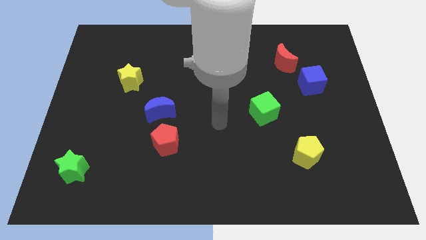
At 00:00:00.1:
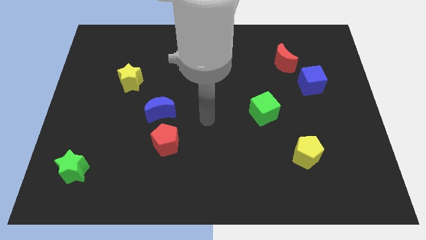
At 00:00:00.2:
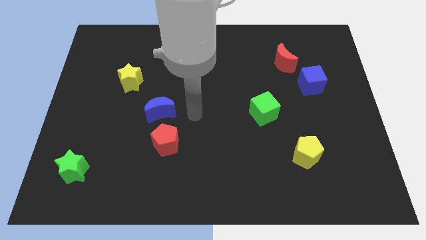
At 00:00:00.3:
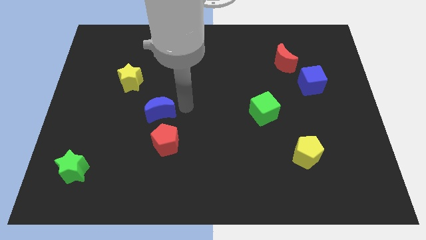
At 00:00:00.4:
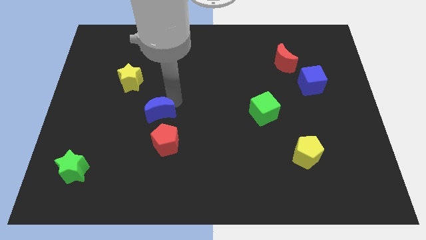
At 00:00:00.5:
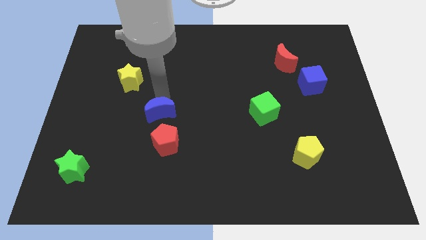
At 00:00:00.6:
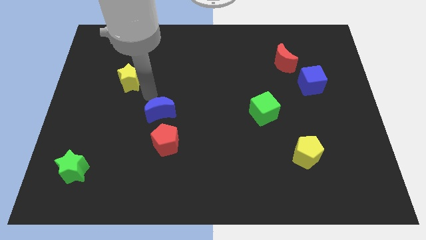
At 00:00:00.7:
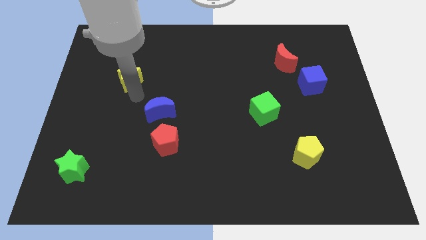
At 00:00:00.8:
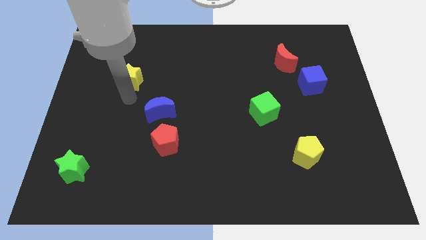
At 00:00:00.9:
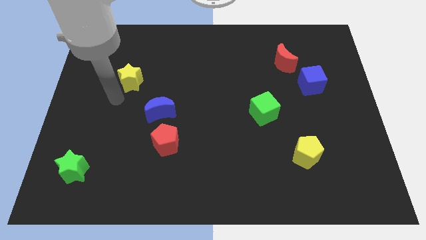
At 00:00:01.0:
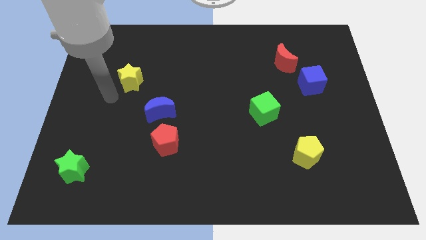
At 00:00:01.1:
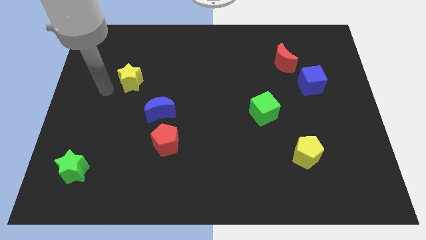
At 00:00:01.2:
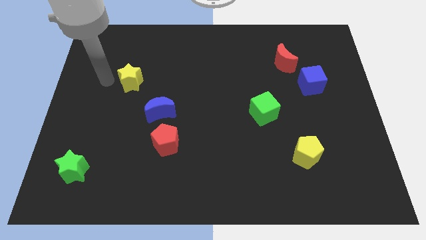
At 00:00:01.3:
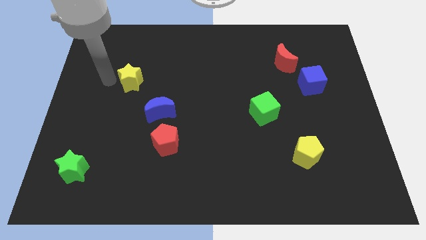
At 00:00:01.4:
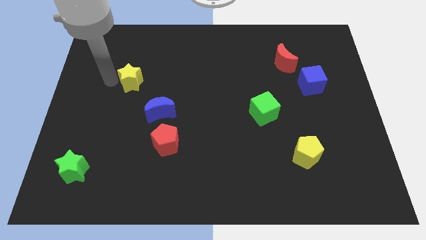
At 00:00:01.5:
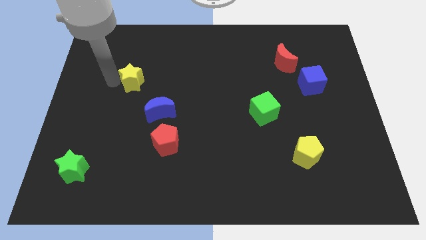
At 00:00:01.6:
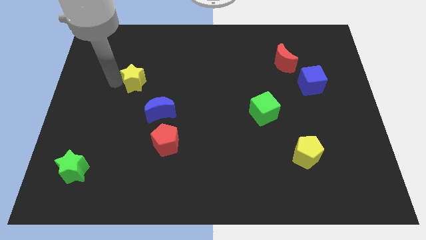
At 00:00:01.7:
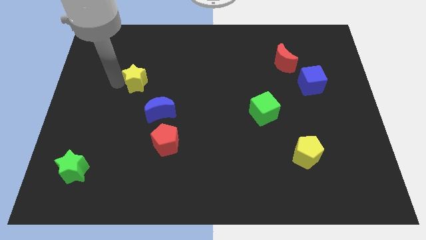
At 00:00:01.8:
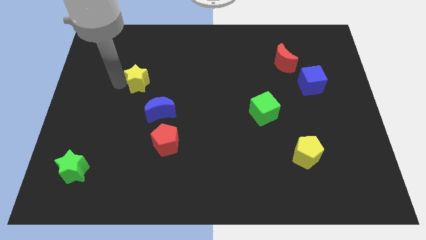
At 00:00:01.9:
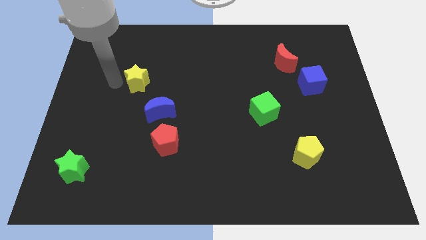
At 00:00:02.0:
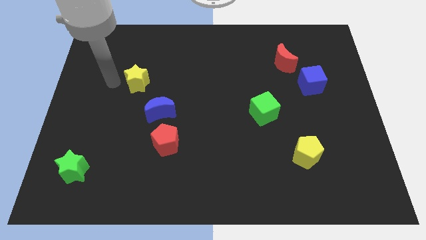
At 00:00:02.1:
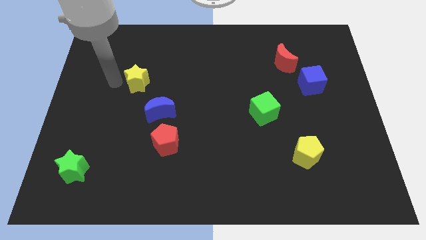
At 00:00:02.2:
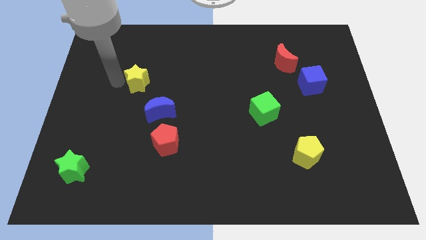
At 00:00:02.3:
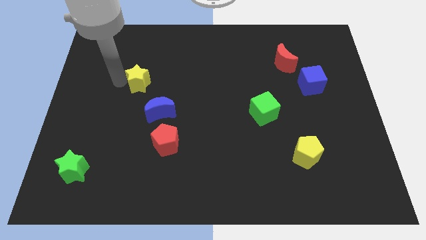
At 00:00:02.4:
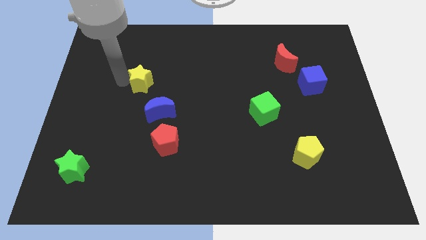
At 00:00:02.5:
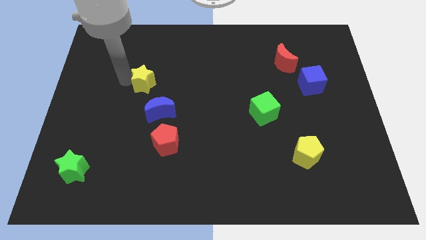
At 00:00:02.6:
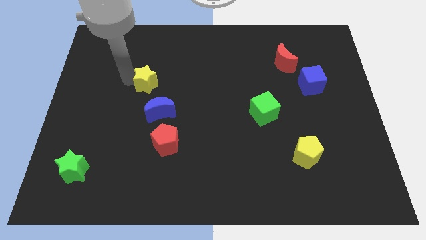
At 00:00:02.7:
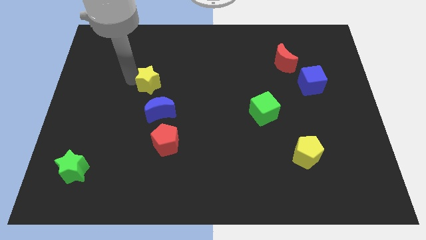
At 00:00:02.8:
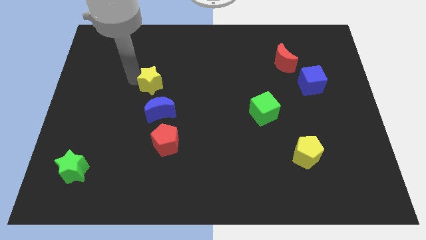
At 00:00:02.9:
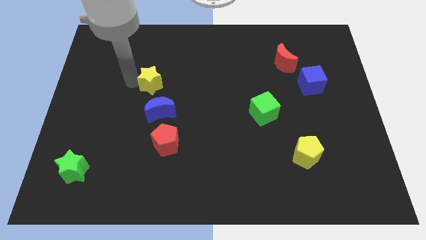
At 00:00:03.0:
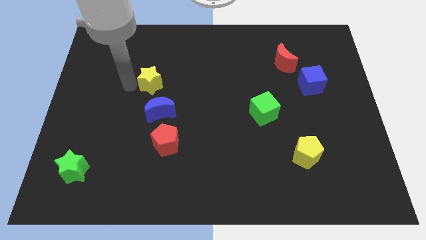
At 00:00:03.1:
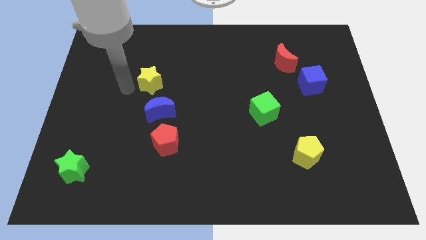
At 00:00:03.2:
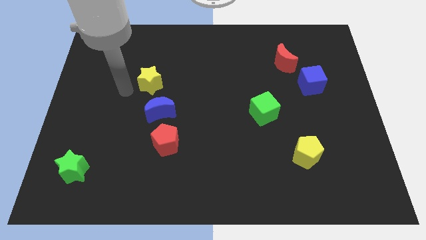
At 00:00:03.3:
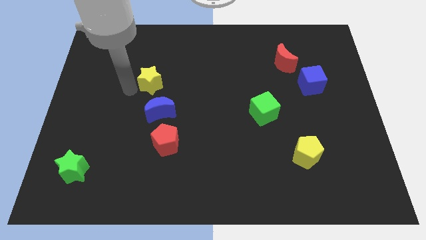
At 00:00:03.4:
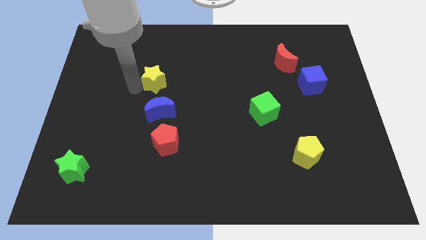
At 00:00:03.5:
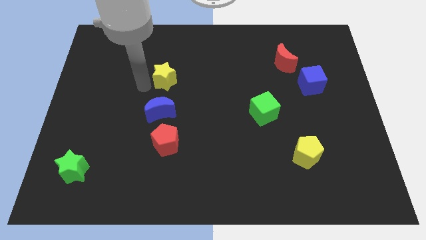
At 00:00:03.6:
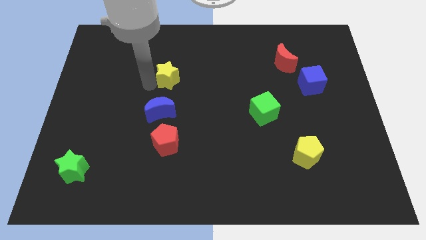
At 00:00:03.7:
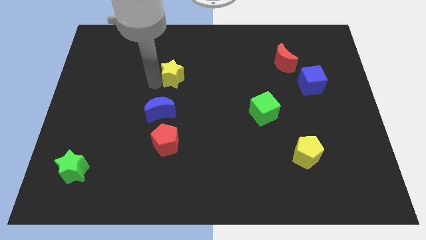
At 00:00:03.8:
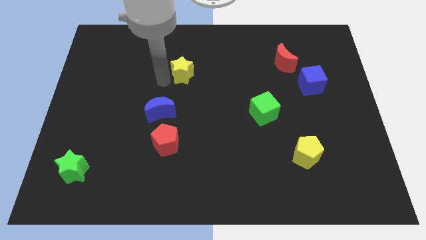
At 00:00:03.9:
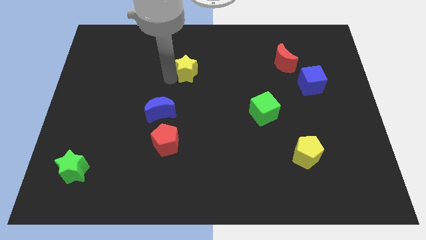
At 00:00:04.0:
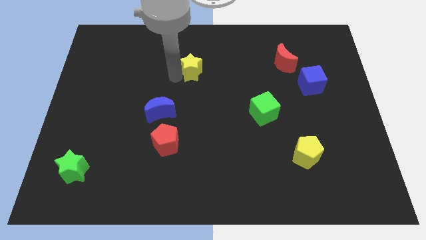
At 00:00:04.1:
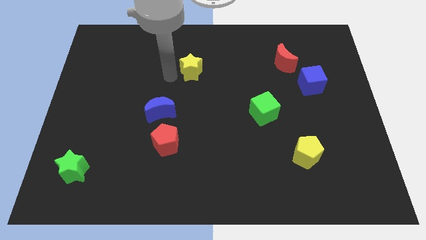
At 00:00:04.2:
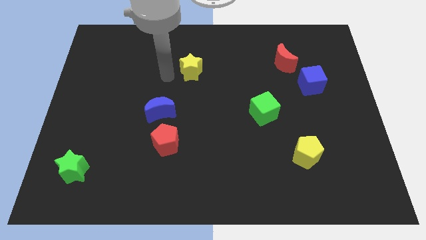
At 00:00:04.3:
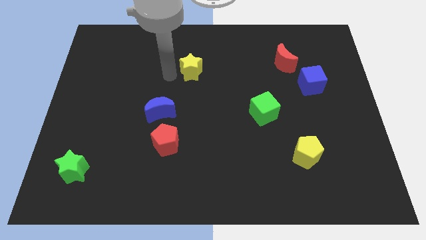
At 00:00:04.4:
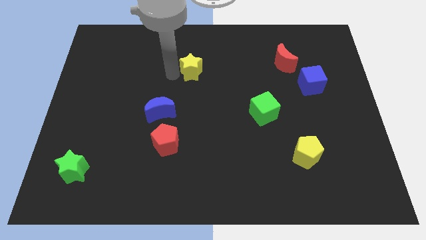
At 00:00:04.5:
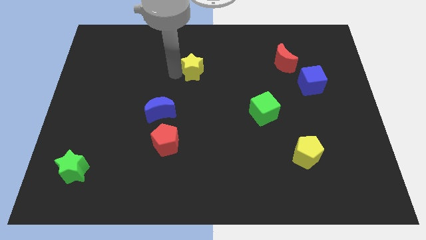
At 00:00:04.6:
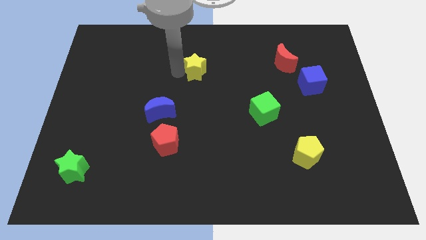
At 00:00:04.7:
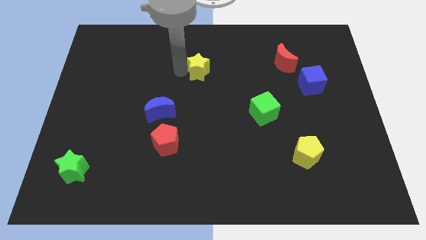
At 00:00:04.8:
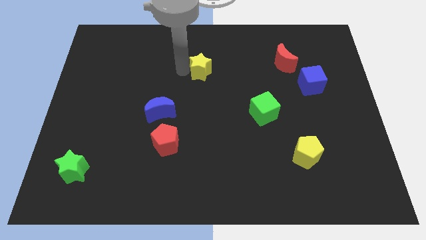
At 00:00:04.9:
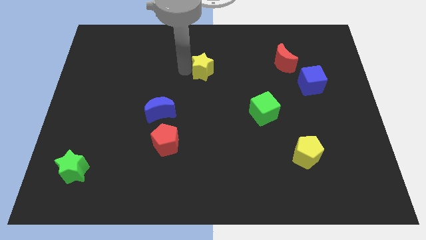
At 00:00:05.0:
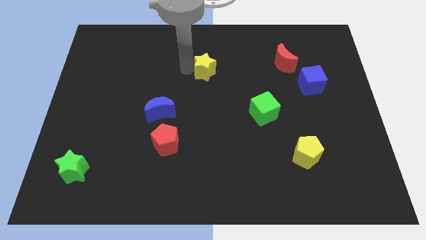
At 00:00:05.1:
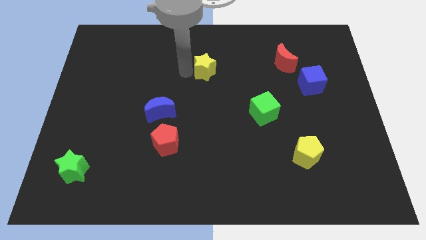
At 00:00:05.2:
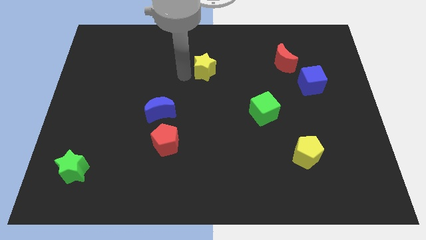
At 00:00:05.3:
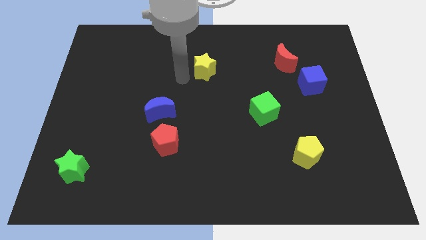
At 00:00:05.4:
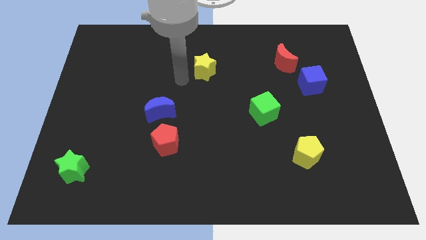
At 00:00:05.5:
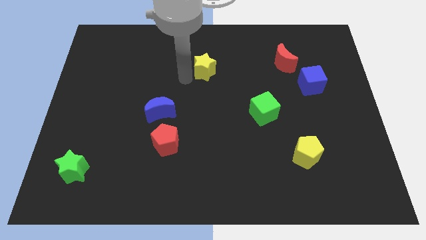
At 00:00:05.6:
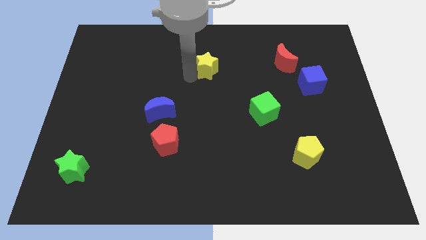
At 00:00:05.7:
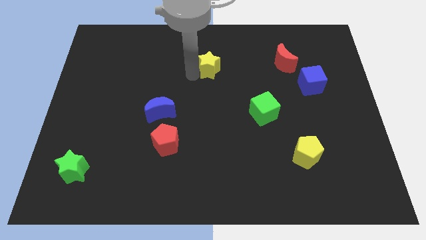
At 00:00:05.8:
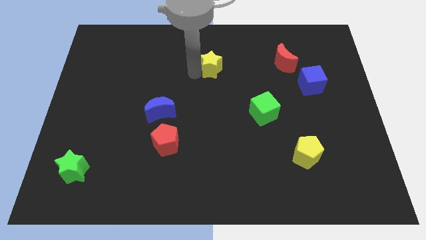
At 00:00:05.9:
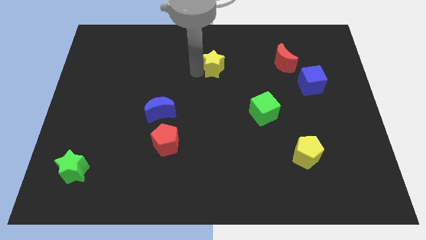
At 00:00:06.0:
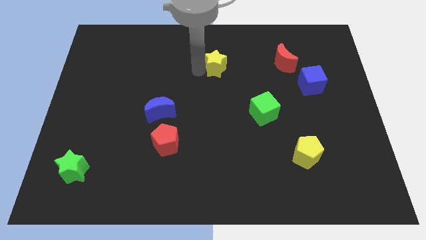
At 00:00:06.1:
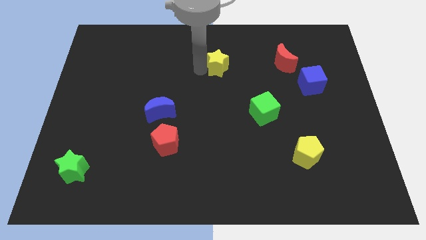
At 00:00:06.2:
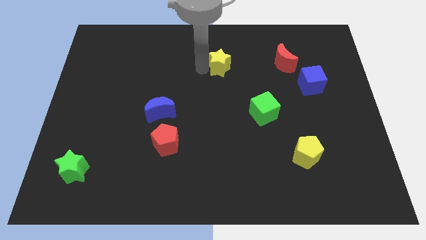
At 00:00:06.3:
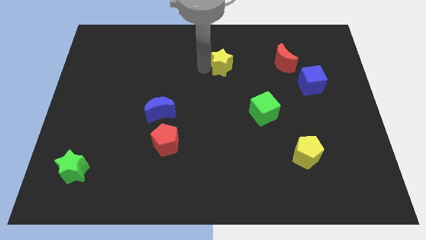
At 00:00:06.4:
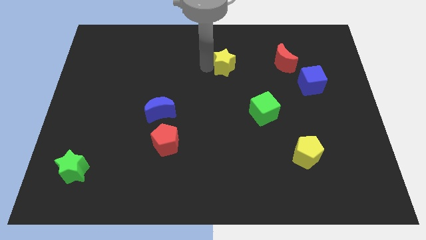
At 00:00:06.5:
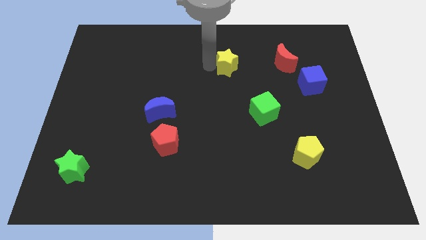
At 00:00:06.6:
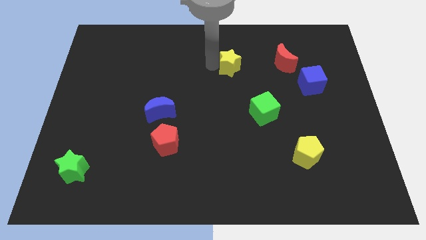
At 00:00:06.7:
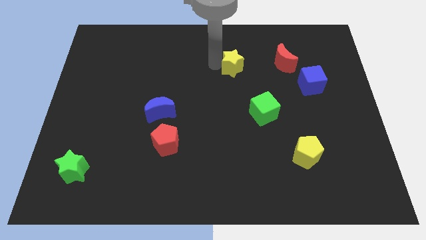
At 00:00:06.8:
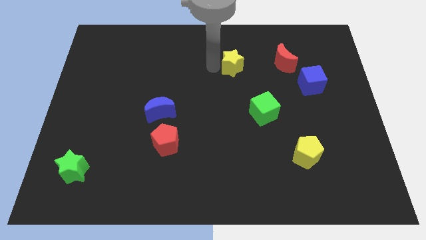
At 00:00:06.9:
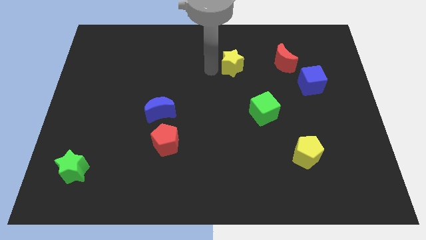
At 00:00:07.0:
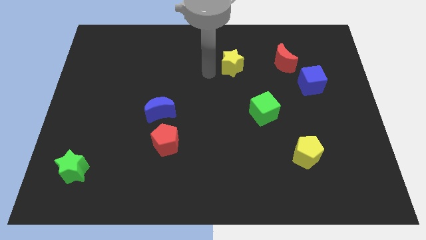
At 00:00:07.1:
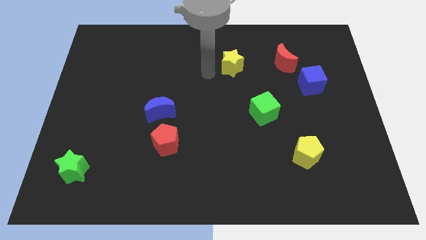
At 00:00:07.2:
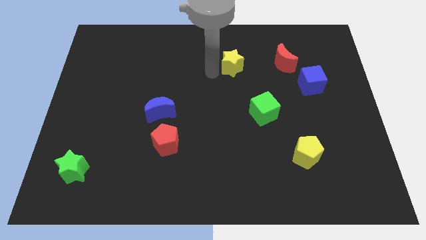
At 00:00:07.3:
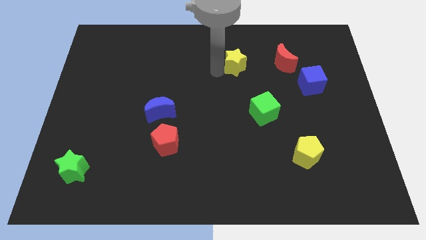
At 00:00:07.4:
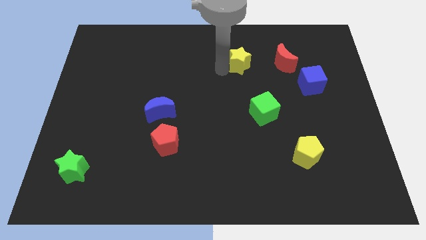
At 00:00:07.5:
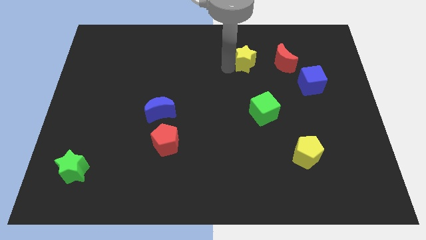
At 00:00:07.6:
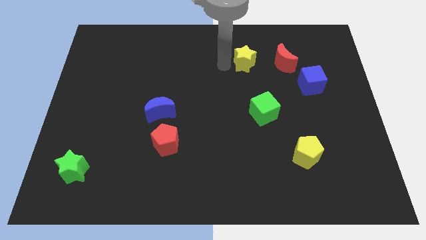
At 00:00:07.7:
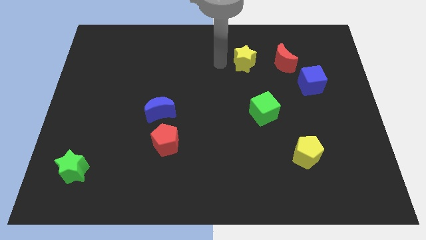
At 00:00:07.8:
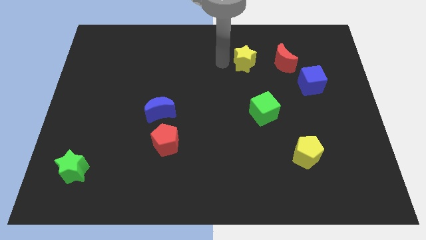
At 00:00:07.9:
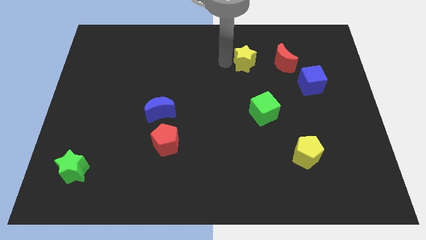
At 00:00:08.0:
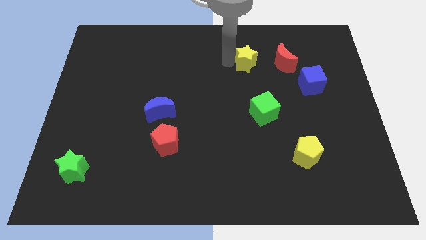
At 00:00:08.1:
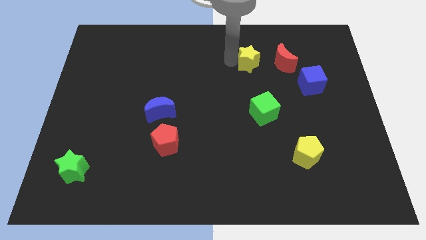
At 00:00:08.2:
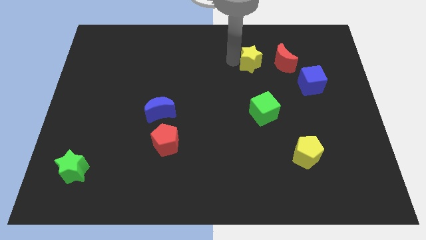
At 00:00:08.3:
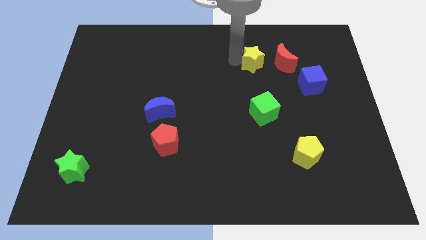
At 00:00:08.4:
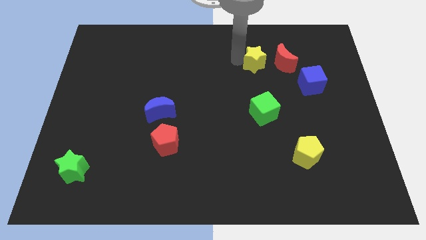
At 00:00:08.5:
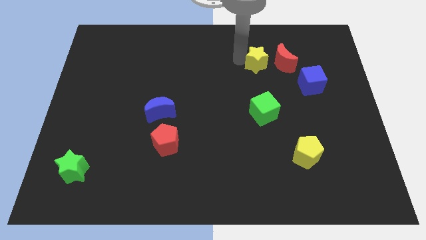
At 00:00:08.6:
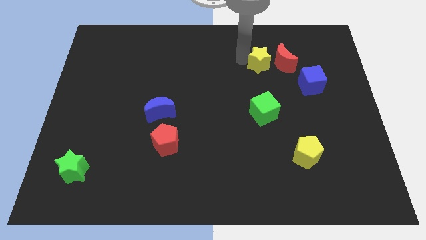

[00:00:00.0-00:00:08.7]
move the yellow star close to the red moon
